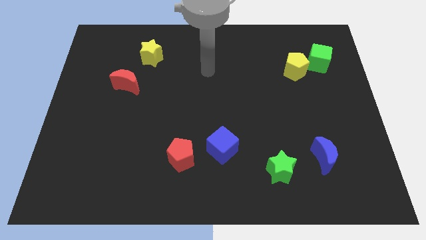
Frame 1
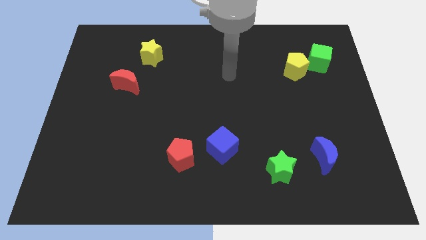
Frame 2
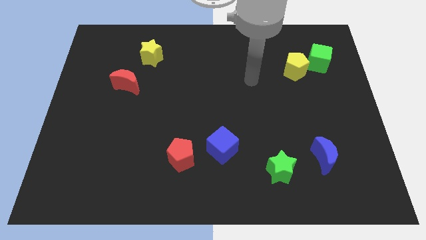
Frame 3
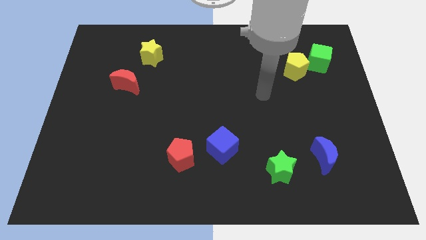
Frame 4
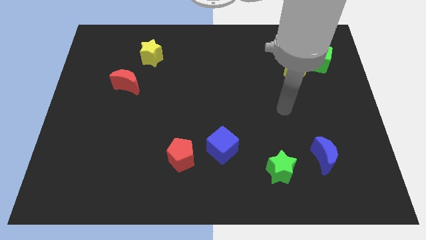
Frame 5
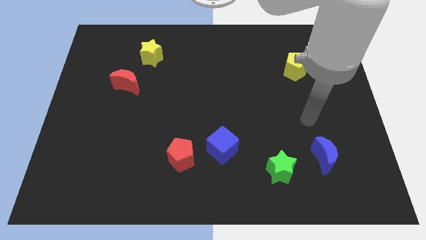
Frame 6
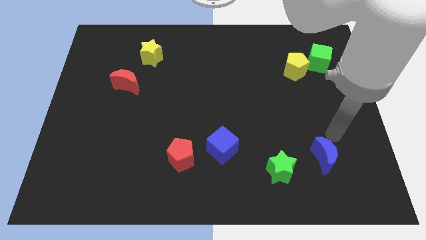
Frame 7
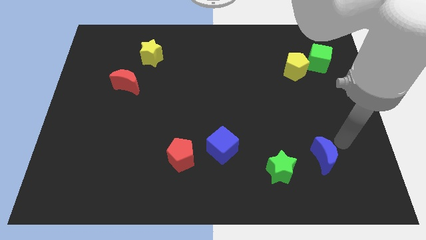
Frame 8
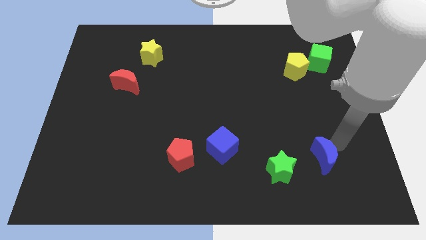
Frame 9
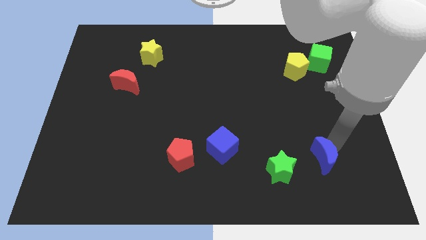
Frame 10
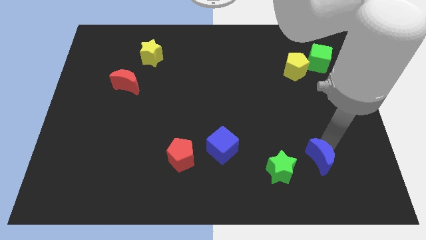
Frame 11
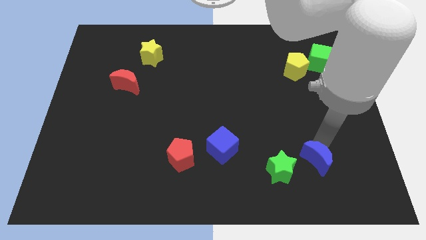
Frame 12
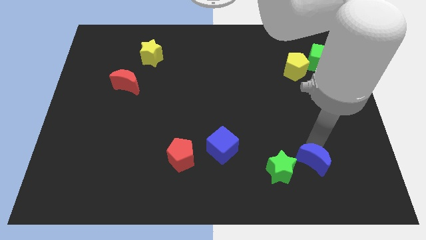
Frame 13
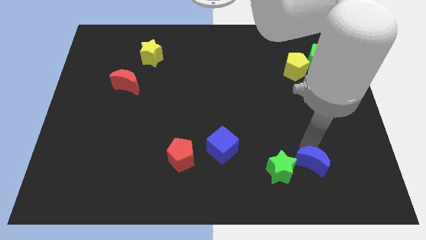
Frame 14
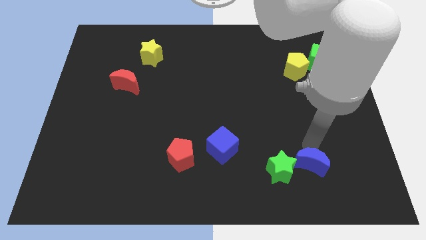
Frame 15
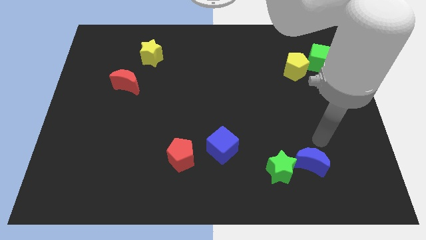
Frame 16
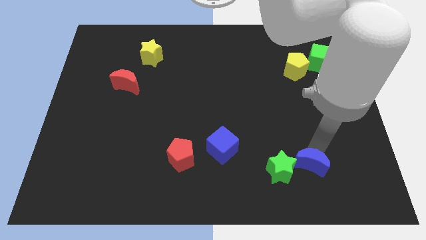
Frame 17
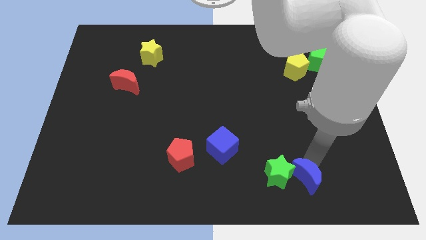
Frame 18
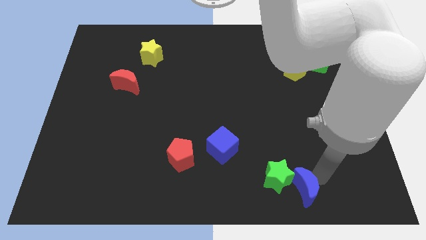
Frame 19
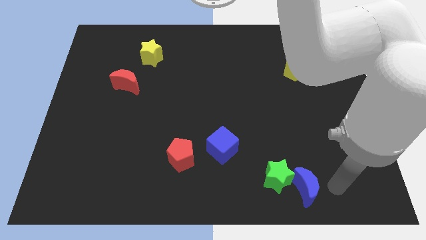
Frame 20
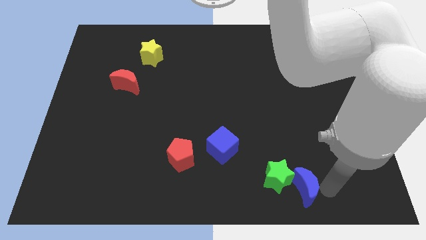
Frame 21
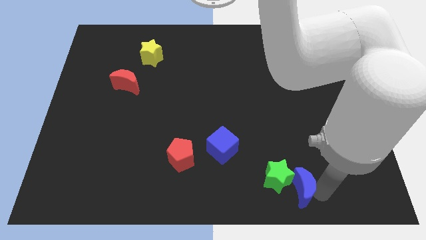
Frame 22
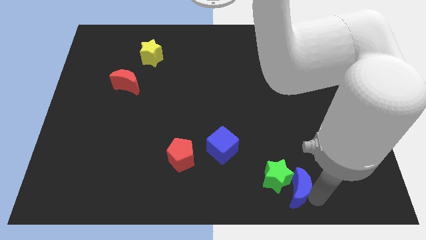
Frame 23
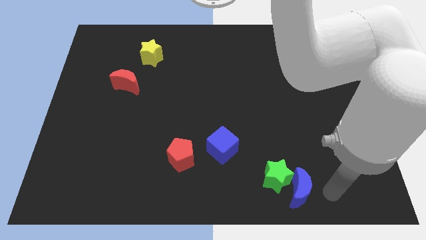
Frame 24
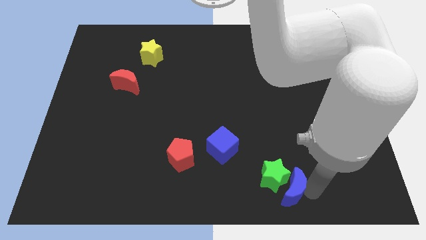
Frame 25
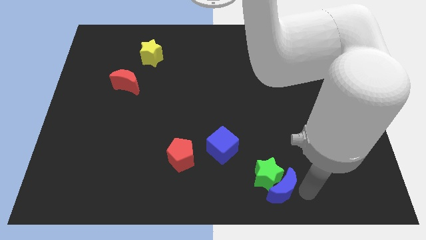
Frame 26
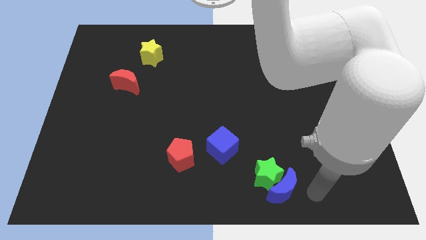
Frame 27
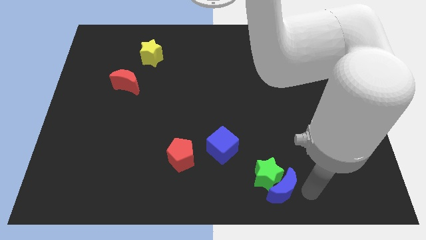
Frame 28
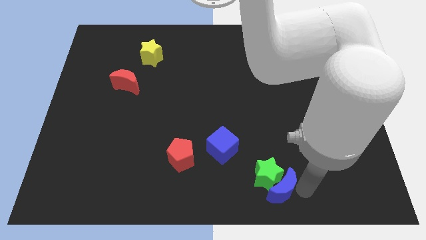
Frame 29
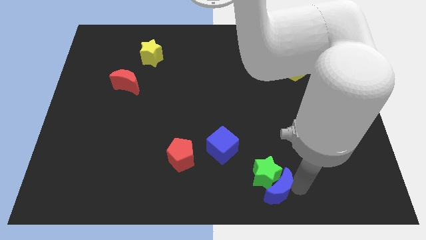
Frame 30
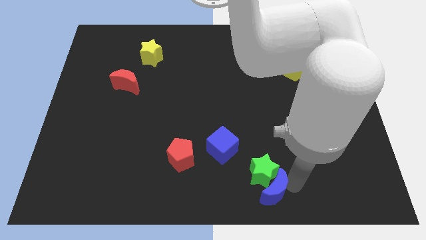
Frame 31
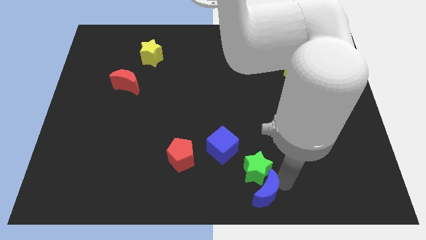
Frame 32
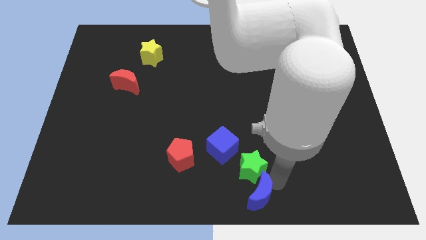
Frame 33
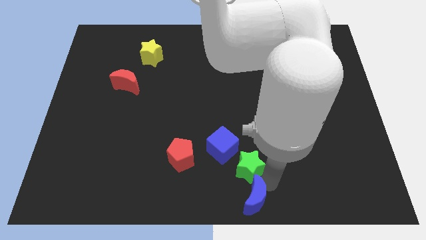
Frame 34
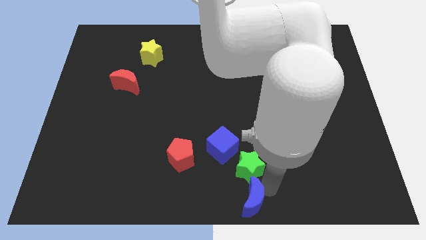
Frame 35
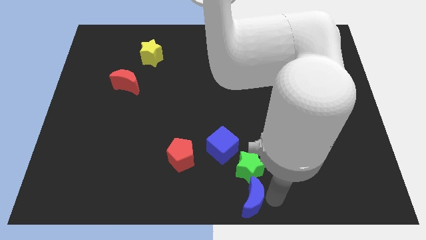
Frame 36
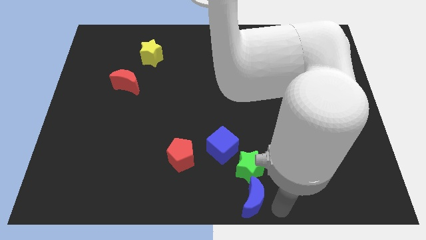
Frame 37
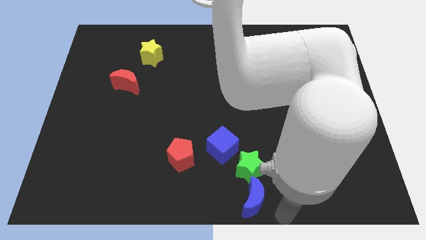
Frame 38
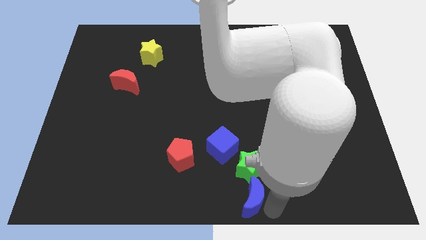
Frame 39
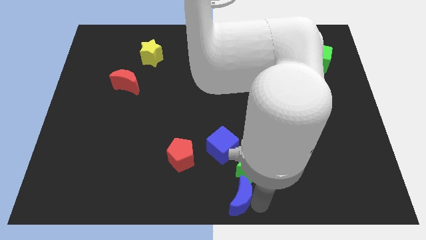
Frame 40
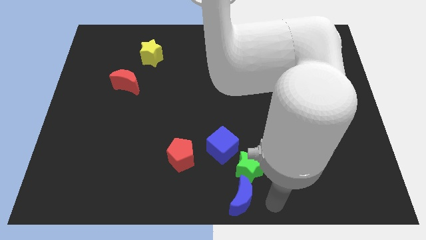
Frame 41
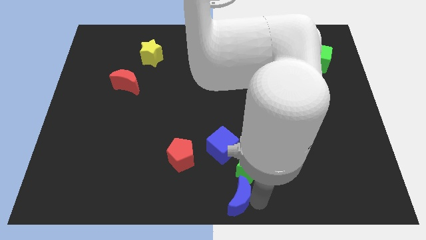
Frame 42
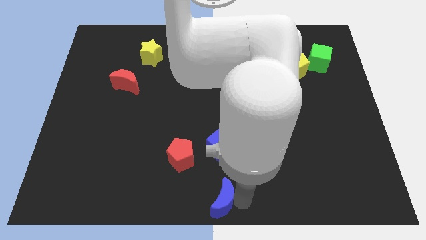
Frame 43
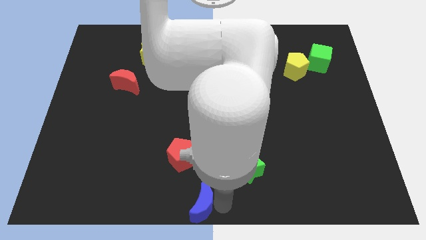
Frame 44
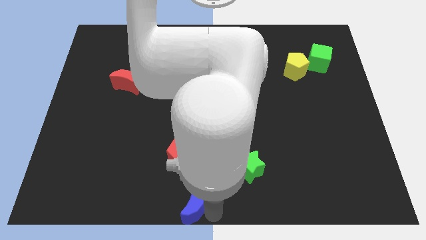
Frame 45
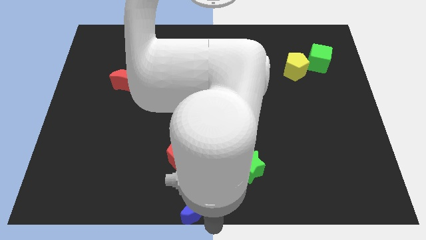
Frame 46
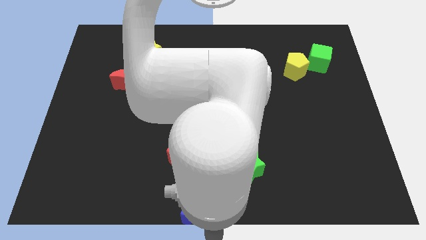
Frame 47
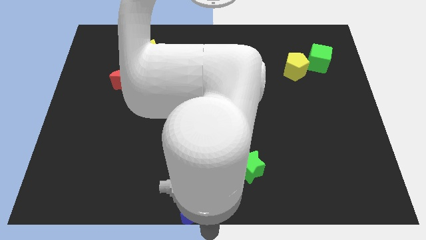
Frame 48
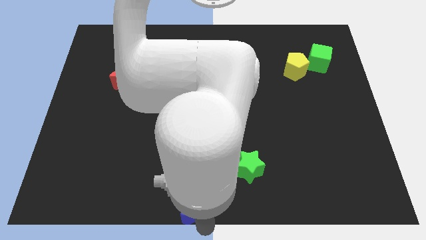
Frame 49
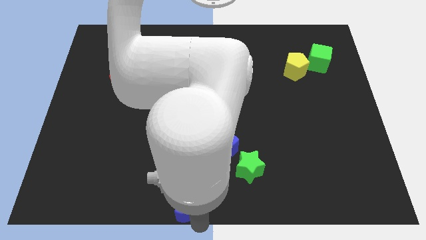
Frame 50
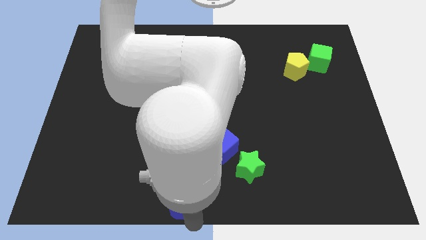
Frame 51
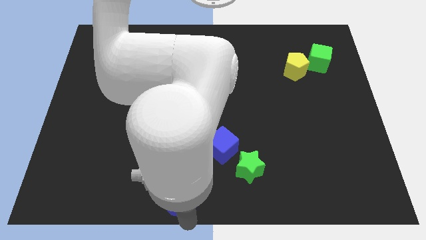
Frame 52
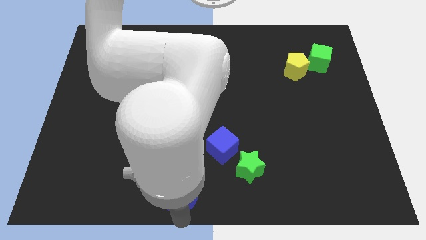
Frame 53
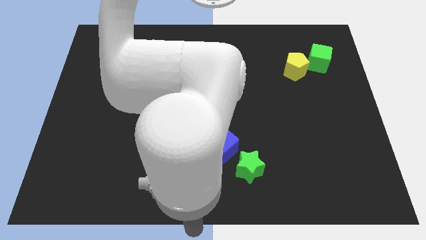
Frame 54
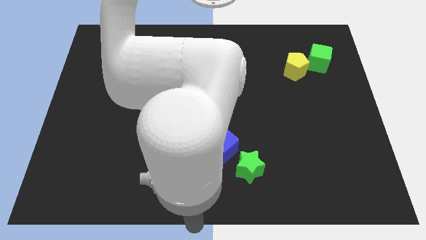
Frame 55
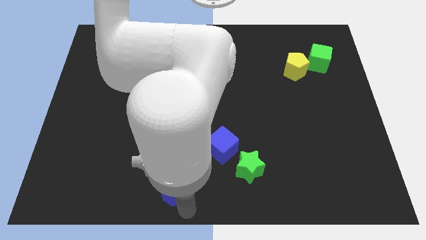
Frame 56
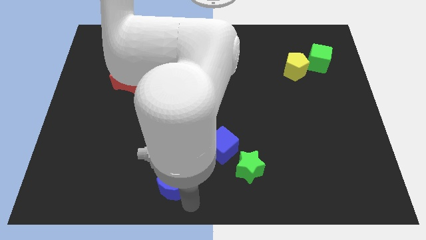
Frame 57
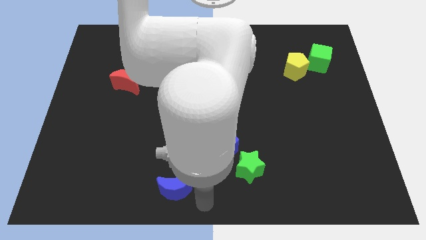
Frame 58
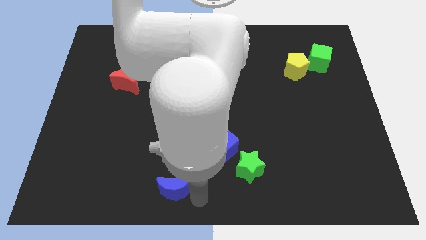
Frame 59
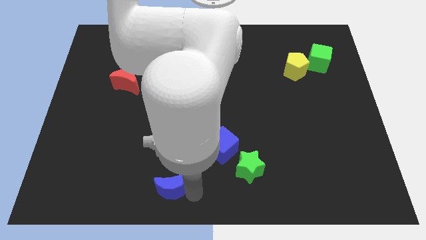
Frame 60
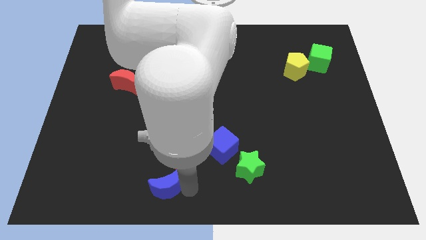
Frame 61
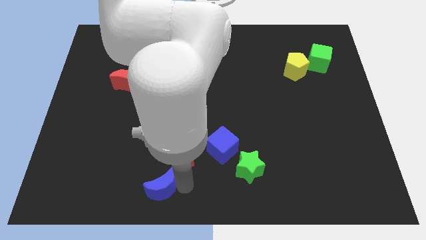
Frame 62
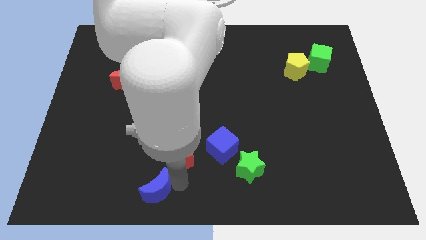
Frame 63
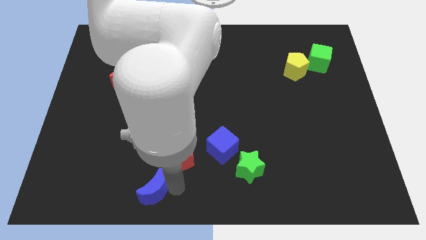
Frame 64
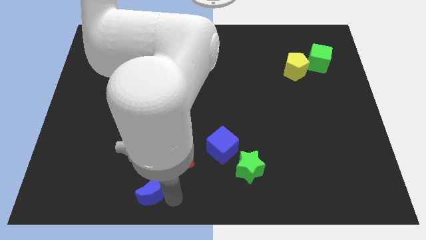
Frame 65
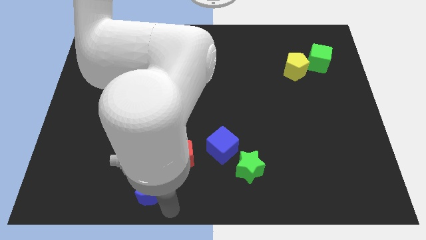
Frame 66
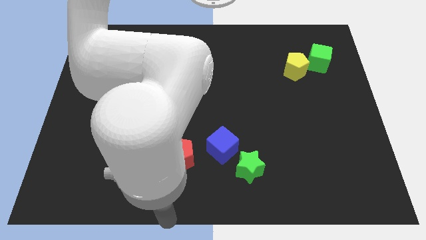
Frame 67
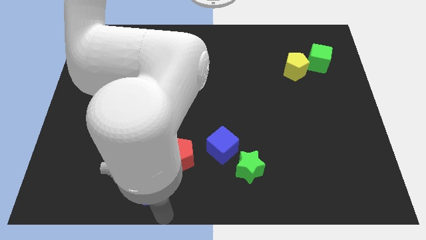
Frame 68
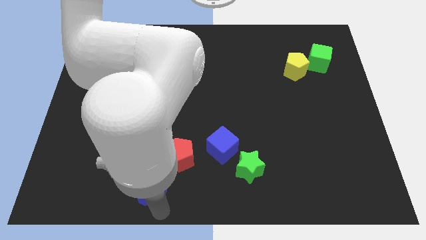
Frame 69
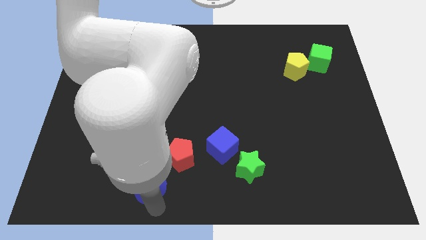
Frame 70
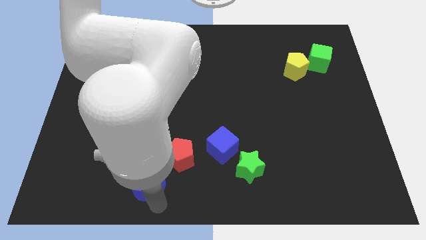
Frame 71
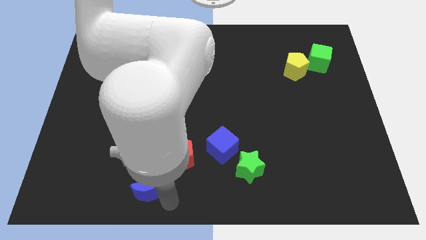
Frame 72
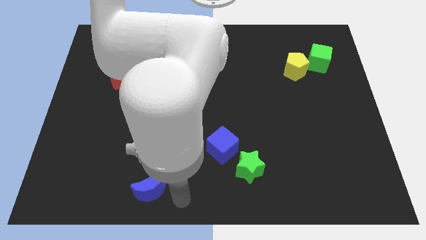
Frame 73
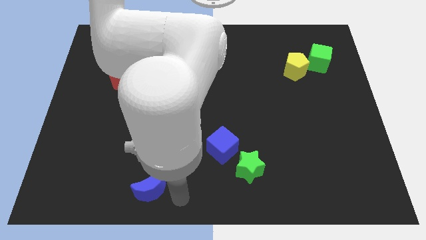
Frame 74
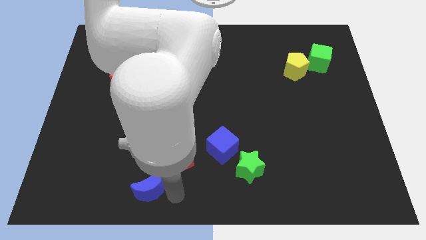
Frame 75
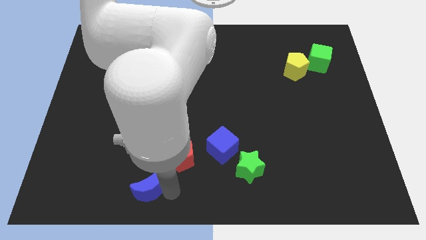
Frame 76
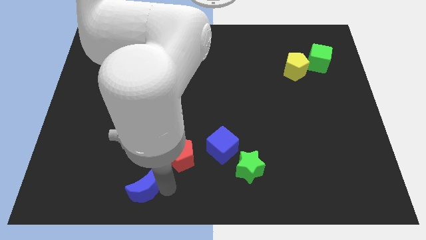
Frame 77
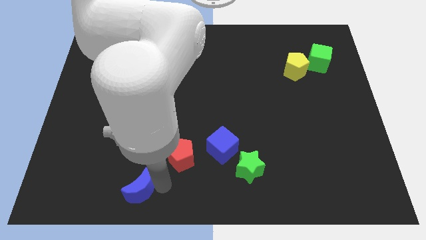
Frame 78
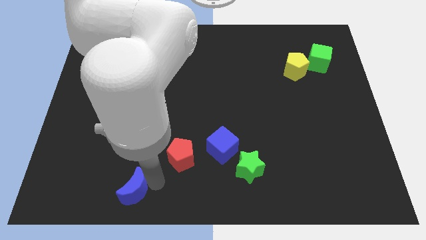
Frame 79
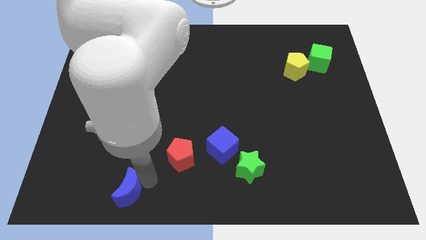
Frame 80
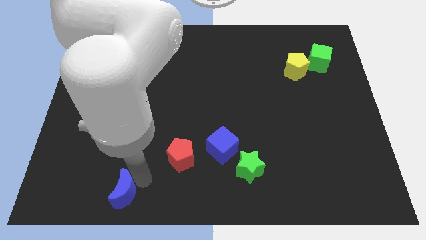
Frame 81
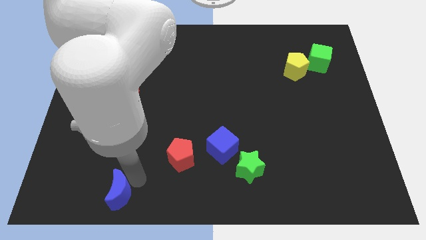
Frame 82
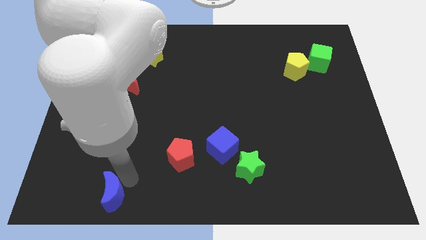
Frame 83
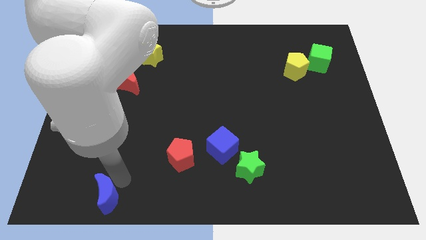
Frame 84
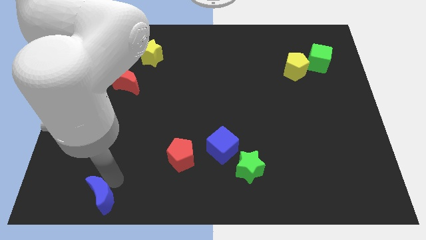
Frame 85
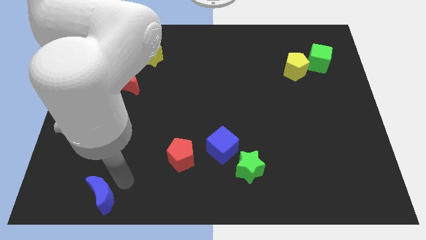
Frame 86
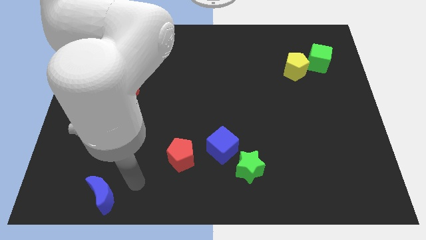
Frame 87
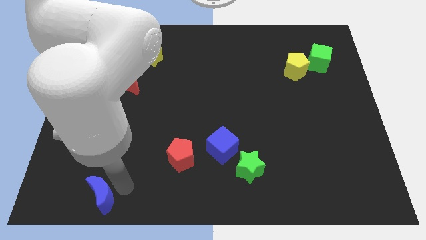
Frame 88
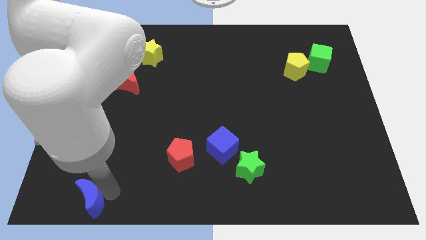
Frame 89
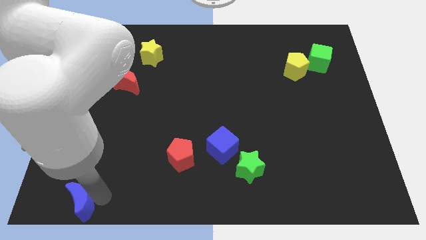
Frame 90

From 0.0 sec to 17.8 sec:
push the blue moon to the bottom left of the board
